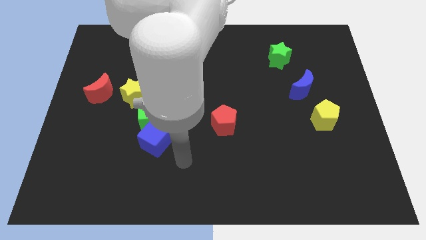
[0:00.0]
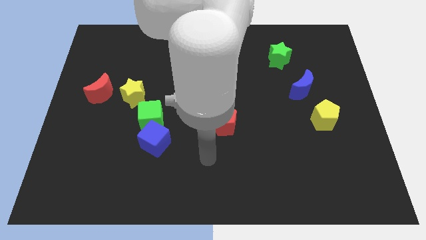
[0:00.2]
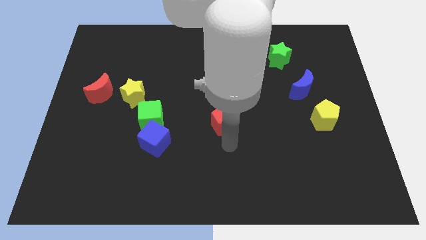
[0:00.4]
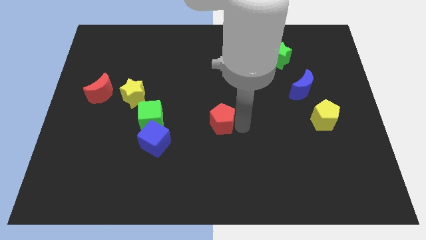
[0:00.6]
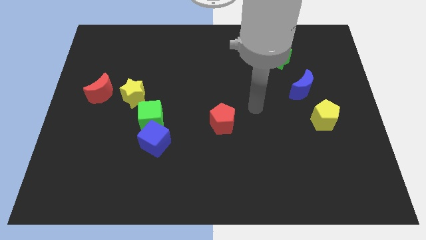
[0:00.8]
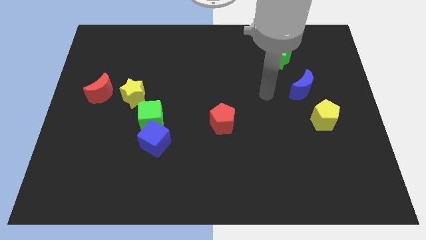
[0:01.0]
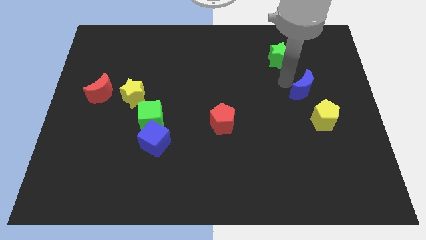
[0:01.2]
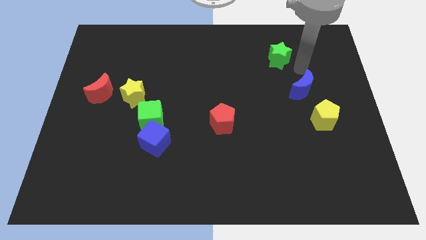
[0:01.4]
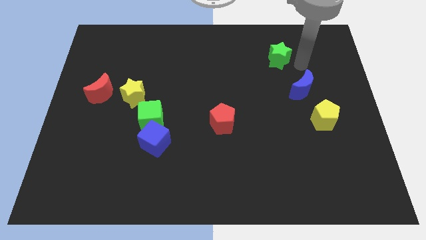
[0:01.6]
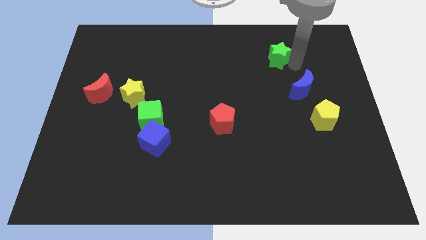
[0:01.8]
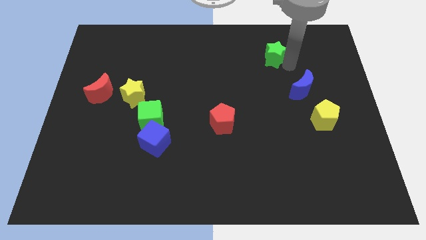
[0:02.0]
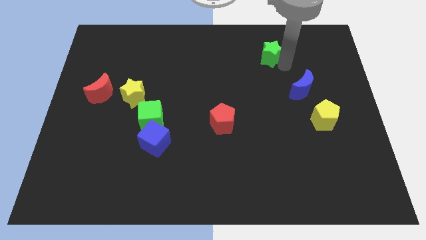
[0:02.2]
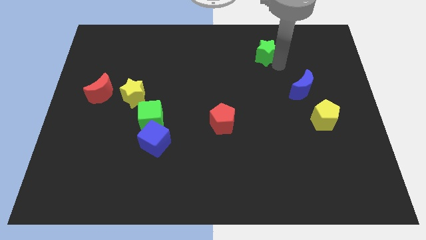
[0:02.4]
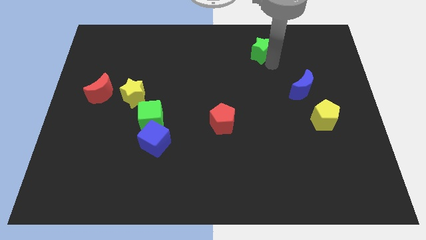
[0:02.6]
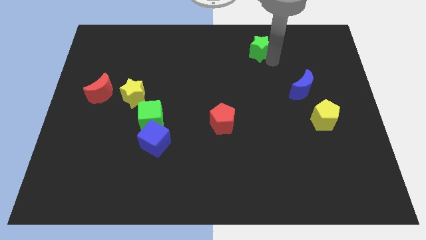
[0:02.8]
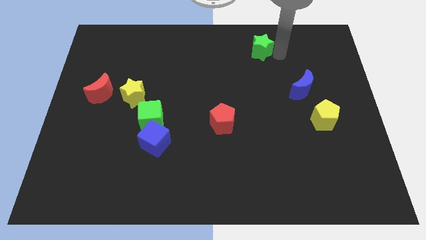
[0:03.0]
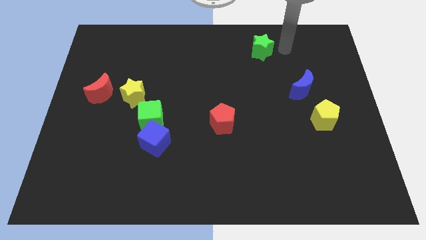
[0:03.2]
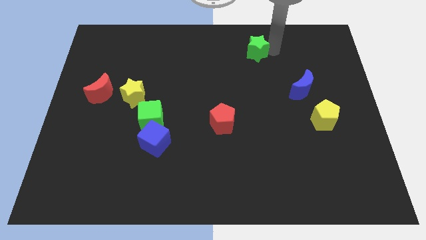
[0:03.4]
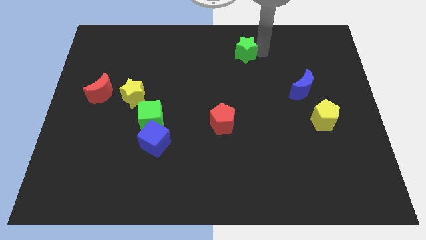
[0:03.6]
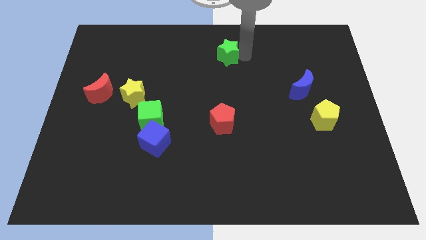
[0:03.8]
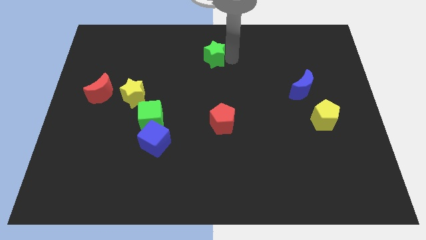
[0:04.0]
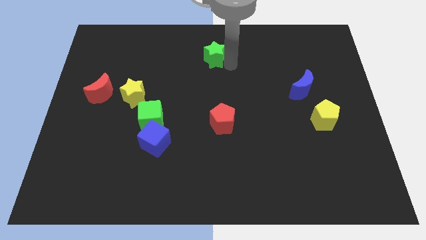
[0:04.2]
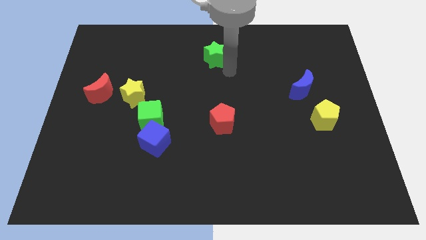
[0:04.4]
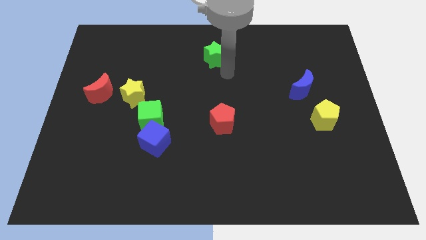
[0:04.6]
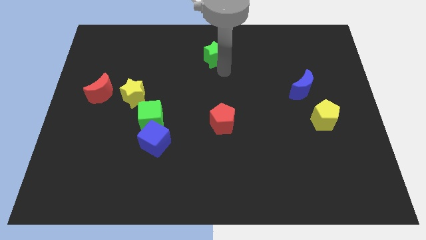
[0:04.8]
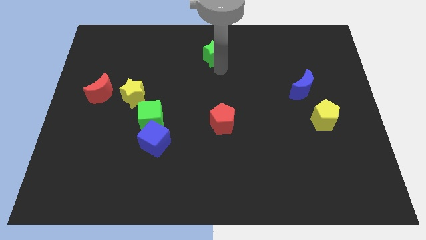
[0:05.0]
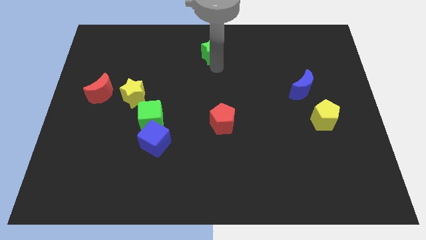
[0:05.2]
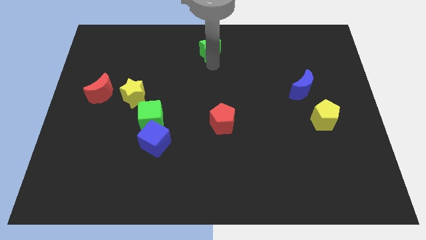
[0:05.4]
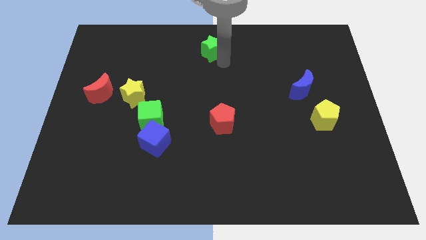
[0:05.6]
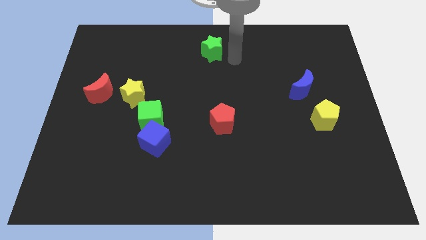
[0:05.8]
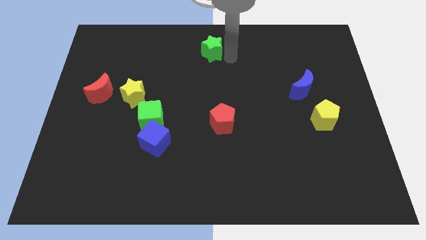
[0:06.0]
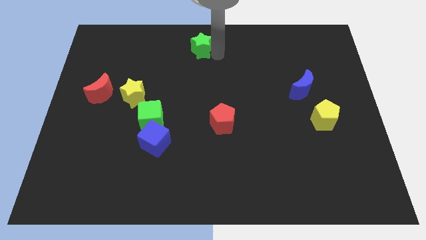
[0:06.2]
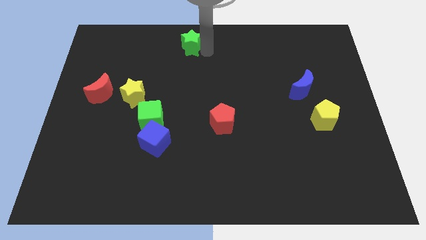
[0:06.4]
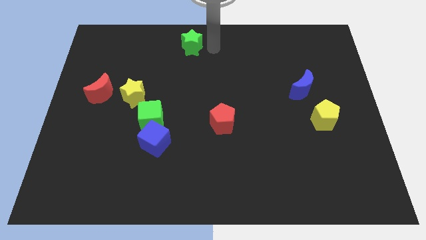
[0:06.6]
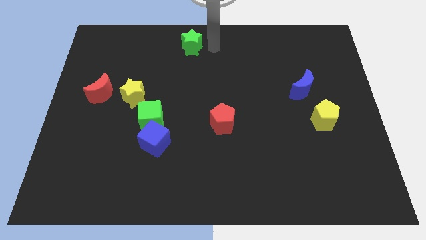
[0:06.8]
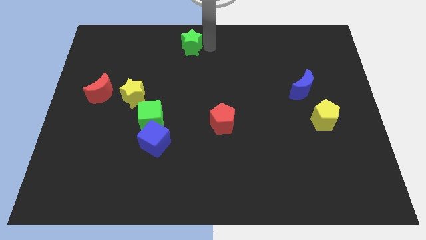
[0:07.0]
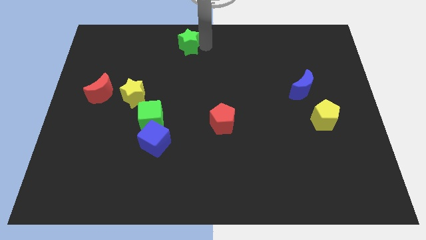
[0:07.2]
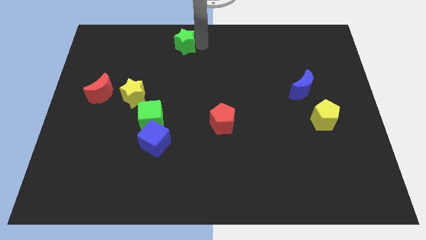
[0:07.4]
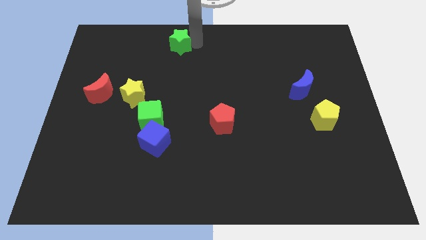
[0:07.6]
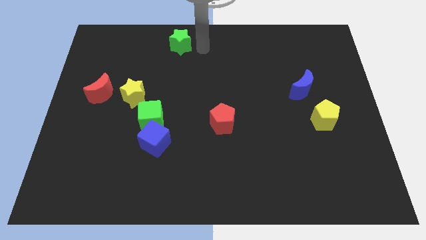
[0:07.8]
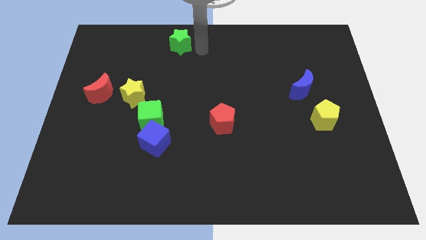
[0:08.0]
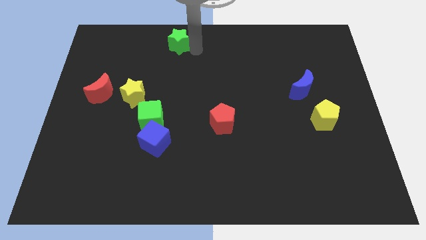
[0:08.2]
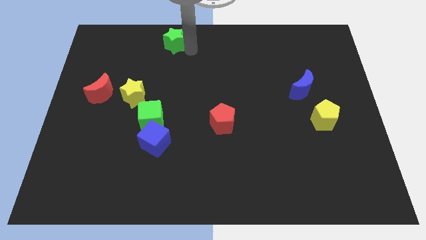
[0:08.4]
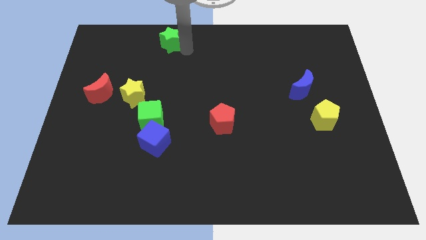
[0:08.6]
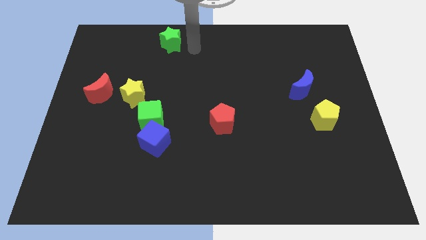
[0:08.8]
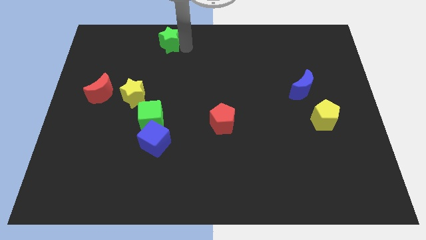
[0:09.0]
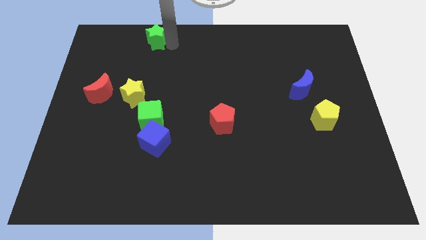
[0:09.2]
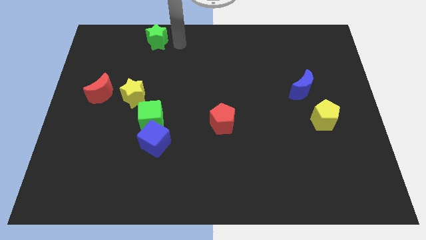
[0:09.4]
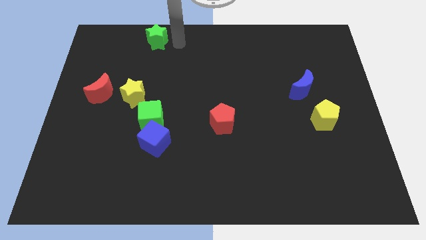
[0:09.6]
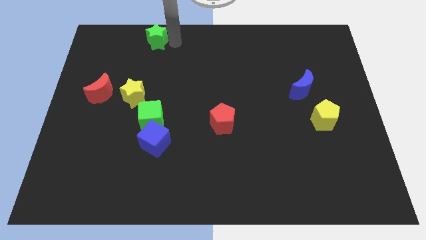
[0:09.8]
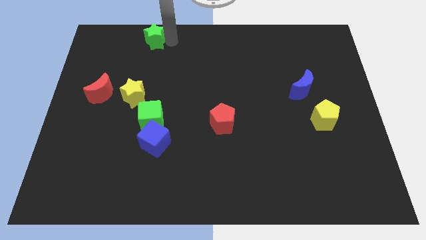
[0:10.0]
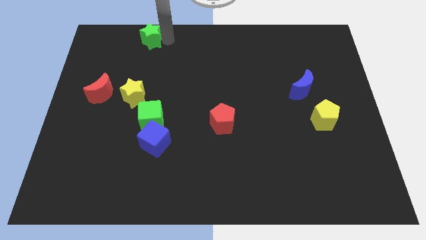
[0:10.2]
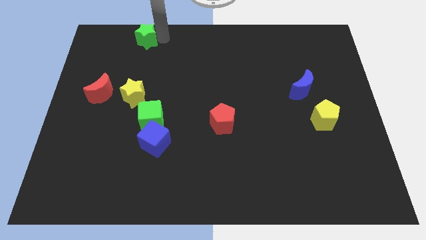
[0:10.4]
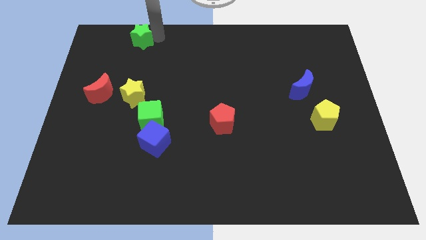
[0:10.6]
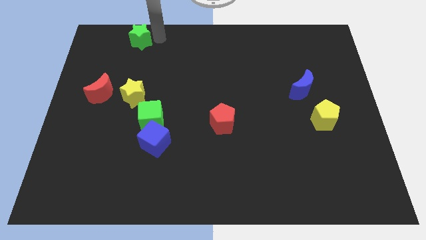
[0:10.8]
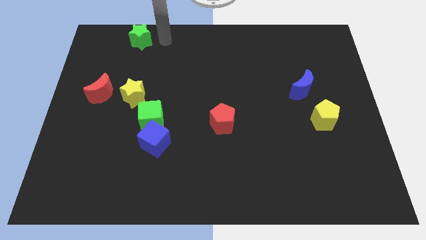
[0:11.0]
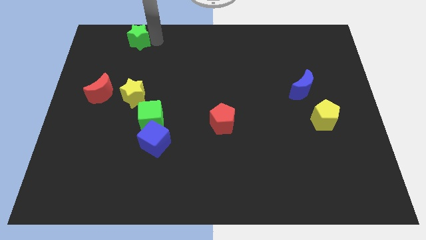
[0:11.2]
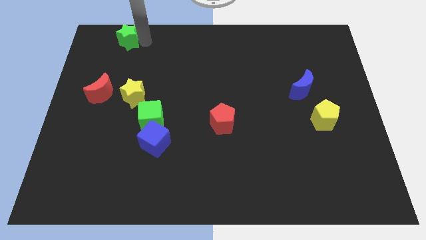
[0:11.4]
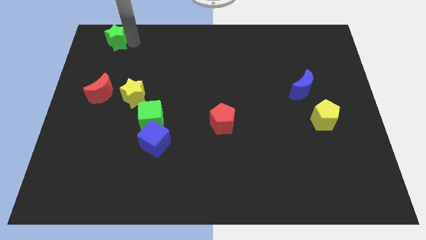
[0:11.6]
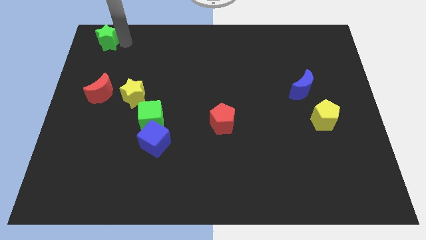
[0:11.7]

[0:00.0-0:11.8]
slide the green star to the top left
